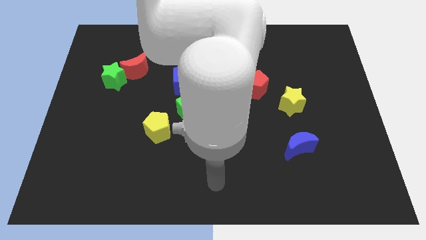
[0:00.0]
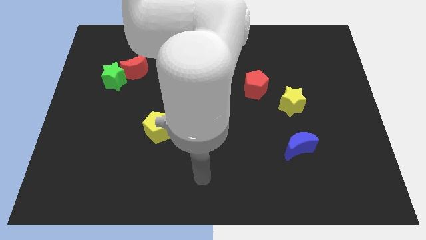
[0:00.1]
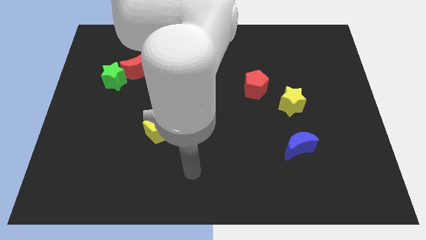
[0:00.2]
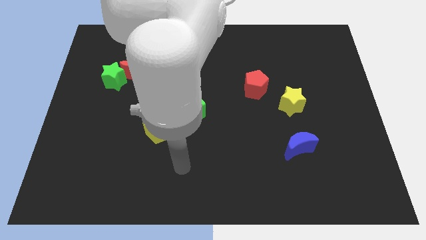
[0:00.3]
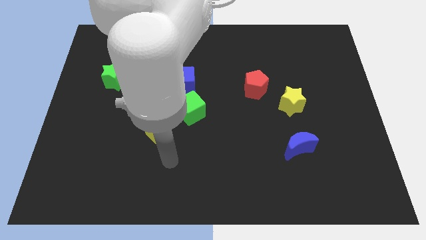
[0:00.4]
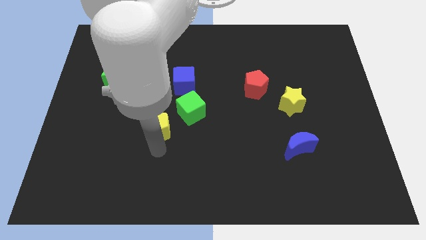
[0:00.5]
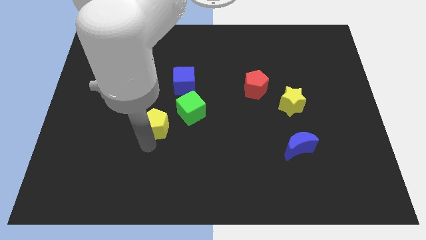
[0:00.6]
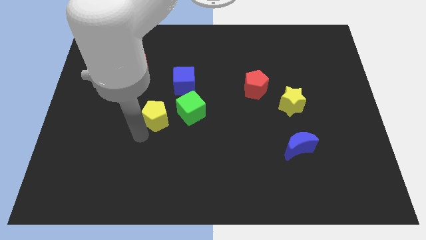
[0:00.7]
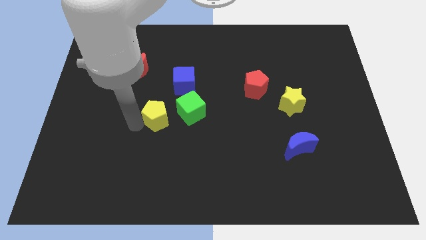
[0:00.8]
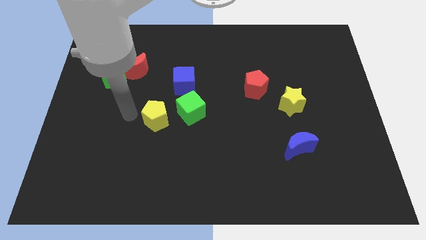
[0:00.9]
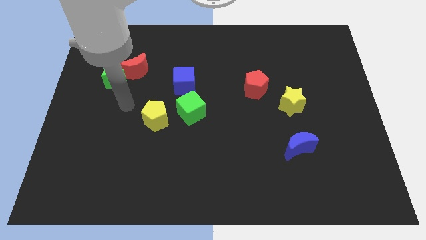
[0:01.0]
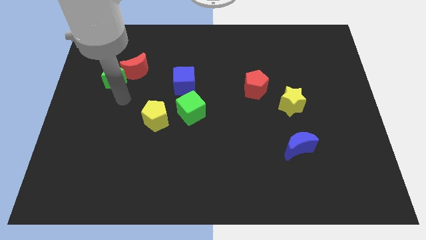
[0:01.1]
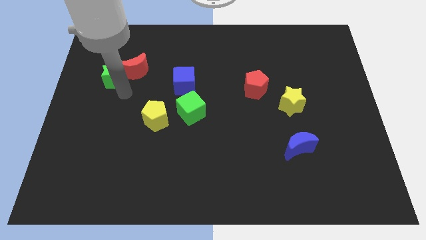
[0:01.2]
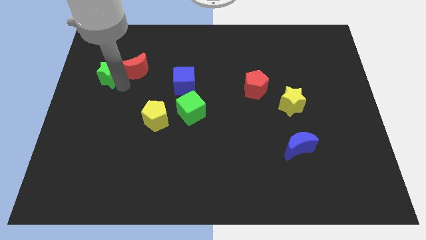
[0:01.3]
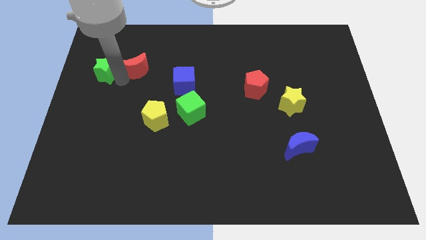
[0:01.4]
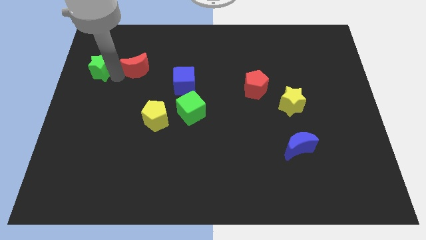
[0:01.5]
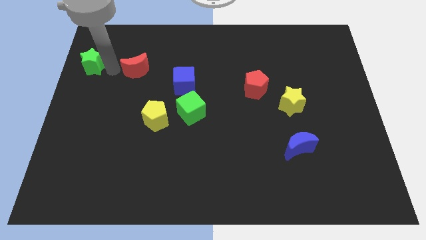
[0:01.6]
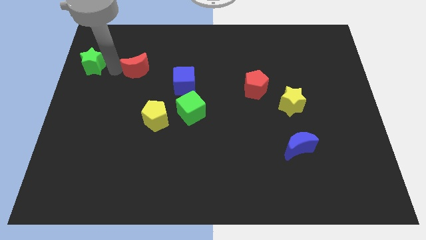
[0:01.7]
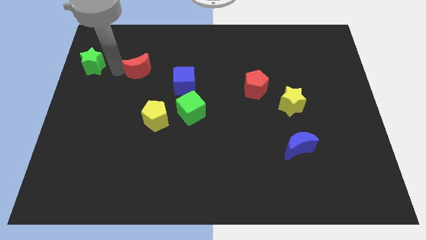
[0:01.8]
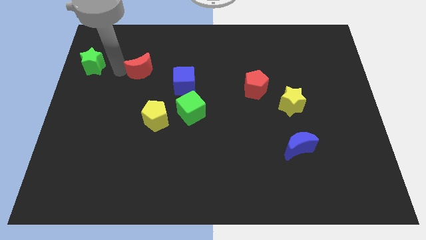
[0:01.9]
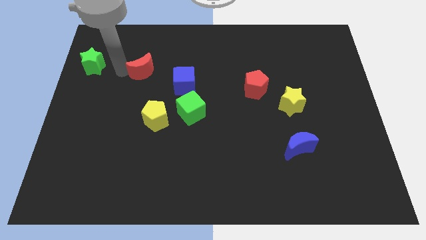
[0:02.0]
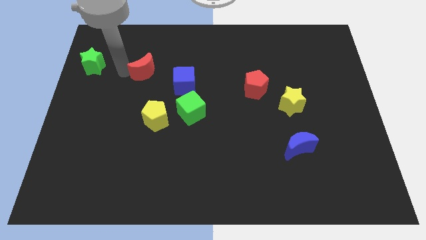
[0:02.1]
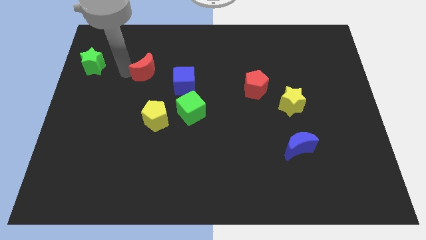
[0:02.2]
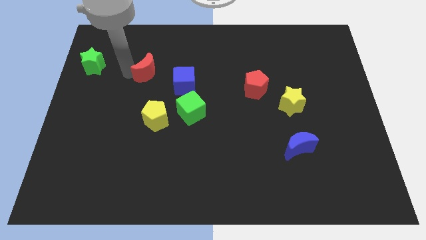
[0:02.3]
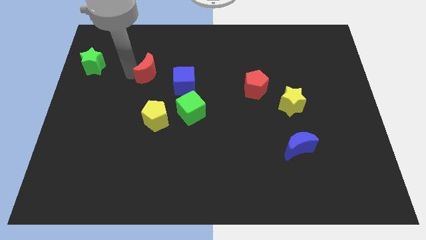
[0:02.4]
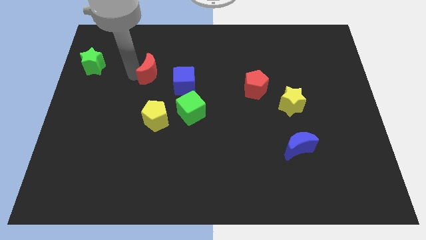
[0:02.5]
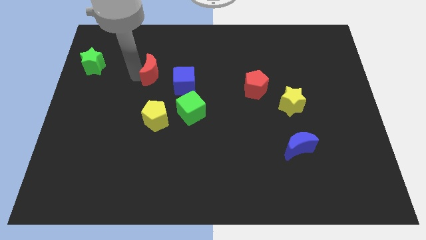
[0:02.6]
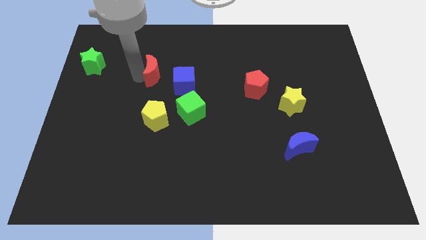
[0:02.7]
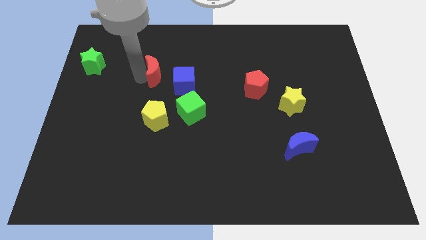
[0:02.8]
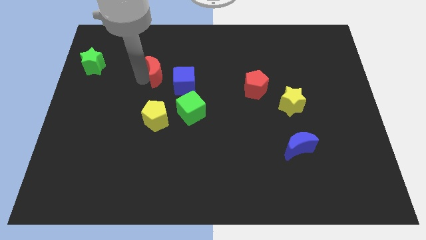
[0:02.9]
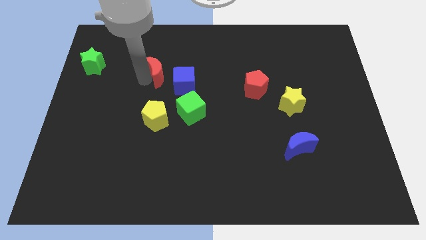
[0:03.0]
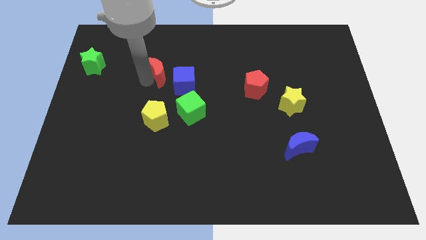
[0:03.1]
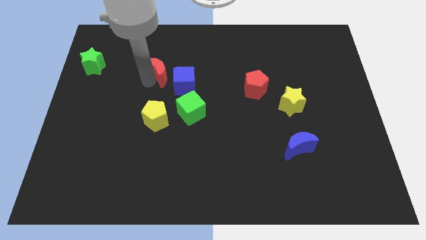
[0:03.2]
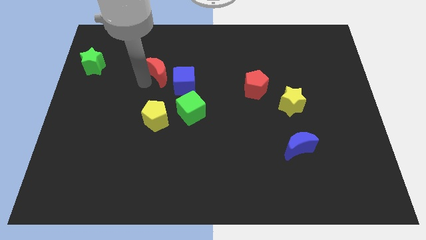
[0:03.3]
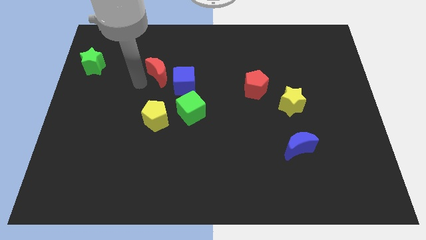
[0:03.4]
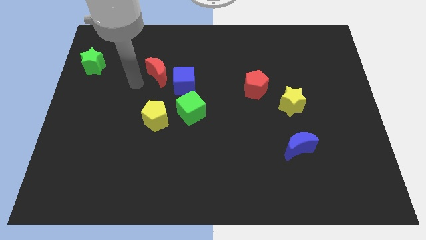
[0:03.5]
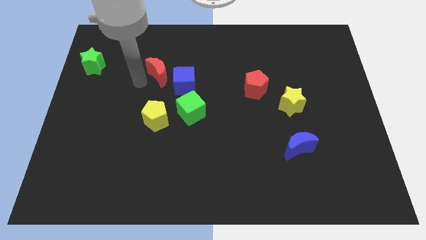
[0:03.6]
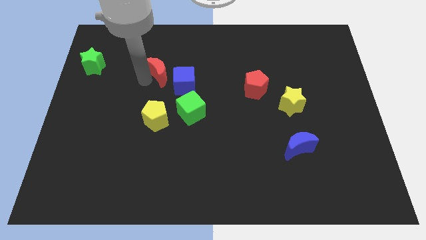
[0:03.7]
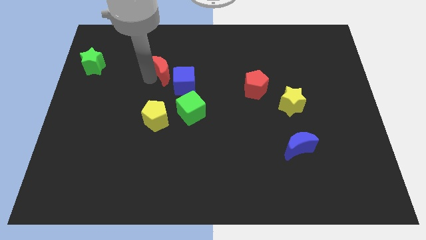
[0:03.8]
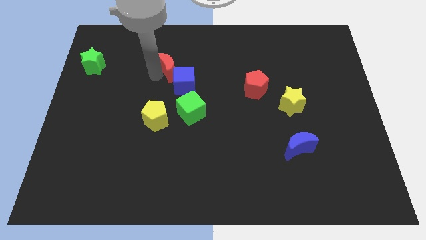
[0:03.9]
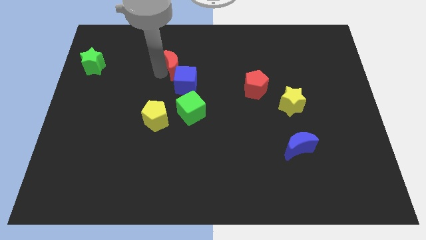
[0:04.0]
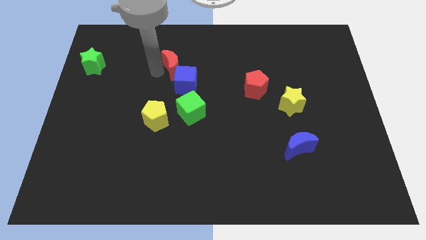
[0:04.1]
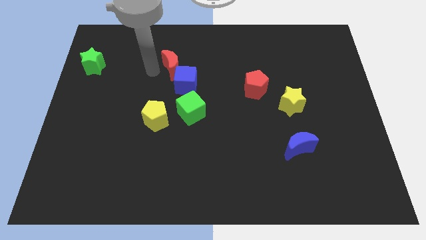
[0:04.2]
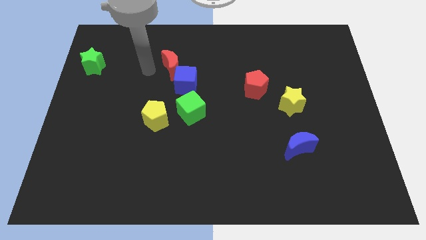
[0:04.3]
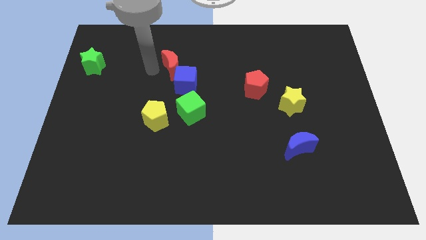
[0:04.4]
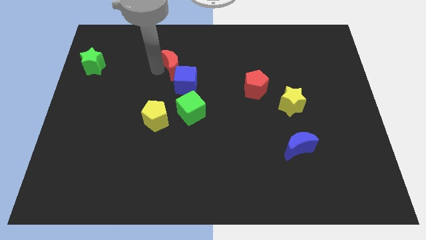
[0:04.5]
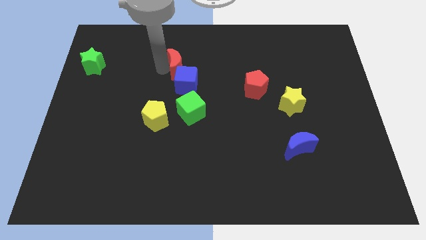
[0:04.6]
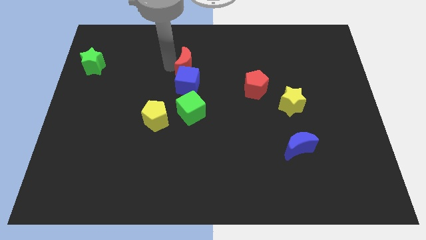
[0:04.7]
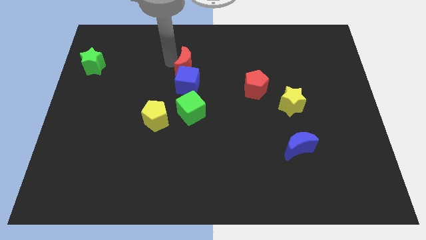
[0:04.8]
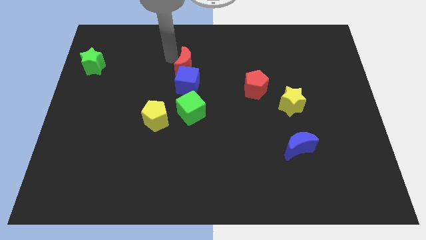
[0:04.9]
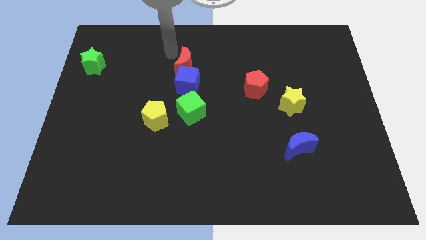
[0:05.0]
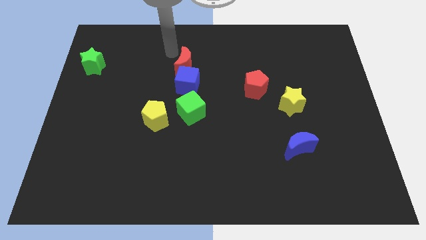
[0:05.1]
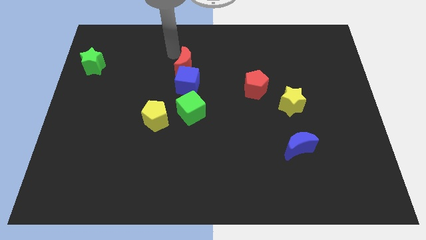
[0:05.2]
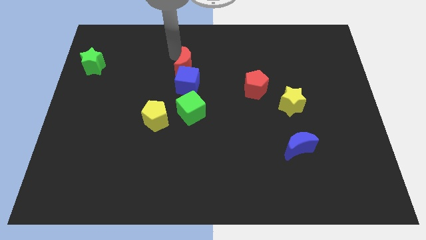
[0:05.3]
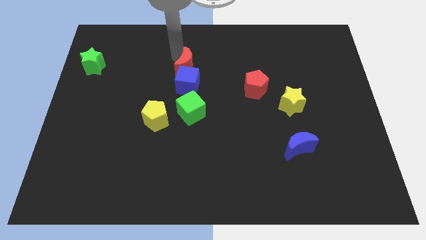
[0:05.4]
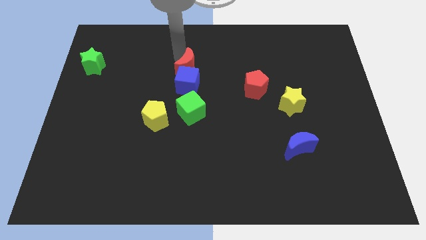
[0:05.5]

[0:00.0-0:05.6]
put the red moon to the center of the board
